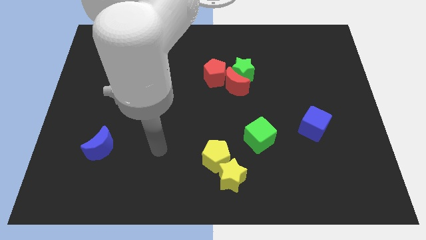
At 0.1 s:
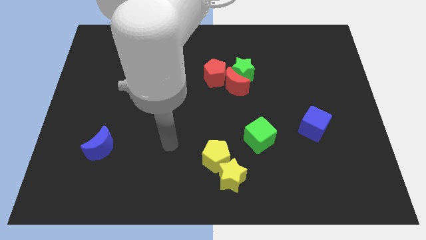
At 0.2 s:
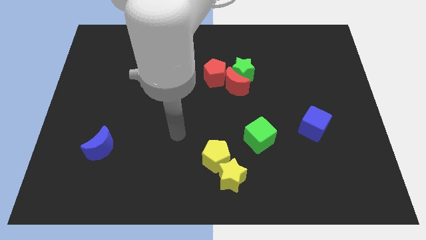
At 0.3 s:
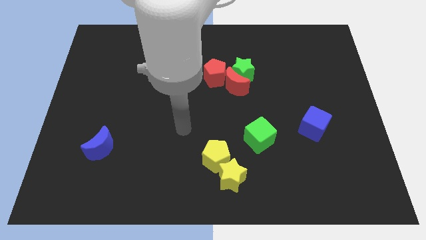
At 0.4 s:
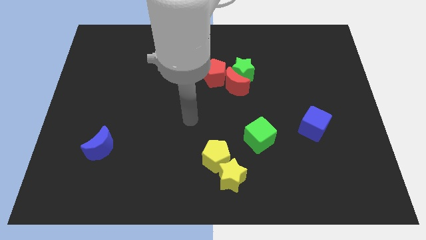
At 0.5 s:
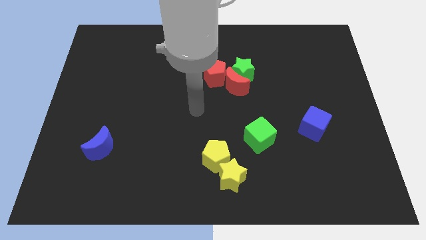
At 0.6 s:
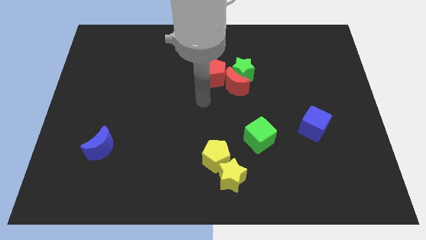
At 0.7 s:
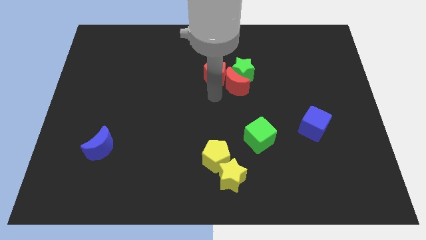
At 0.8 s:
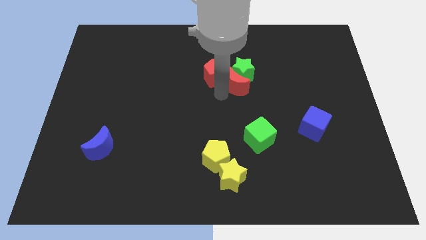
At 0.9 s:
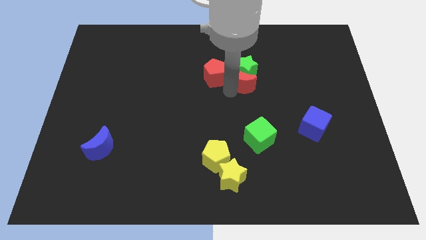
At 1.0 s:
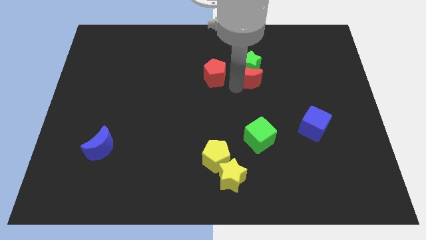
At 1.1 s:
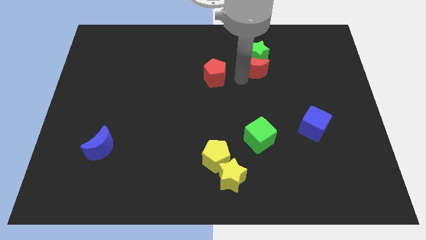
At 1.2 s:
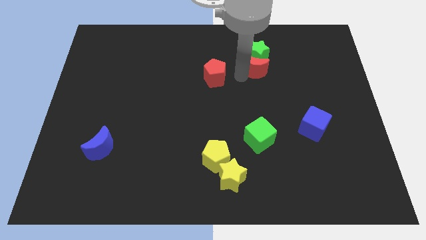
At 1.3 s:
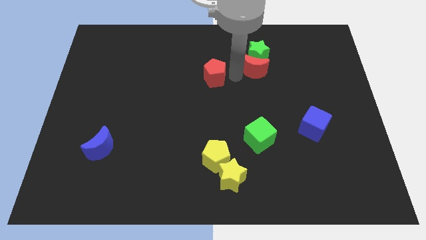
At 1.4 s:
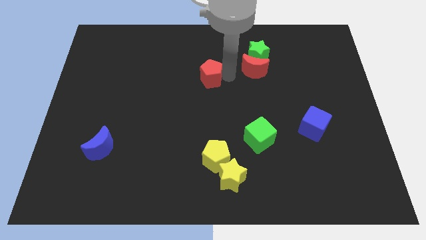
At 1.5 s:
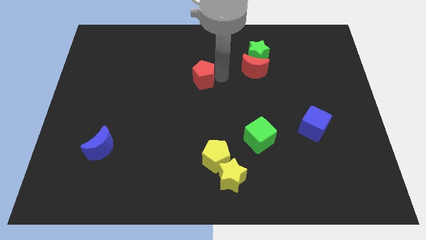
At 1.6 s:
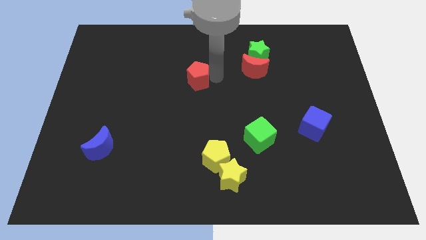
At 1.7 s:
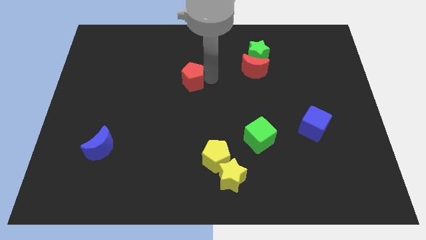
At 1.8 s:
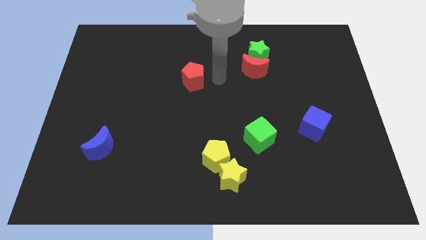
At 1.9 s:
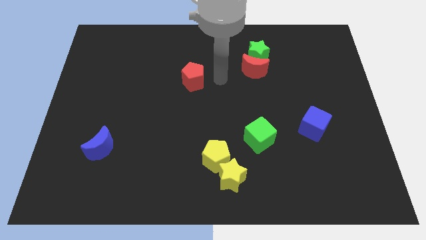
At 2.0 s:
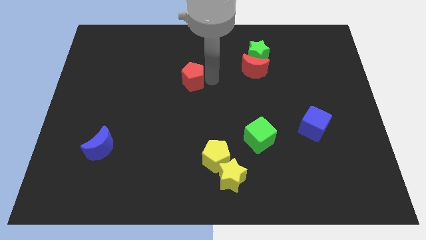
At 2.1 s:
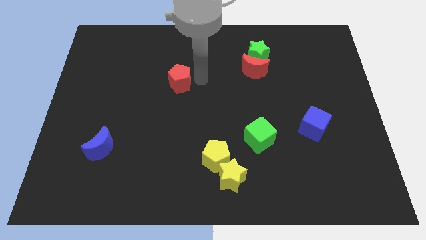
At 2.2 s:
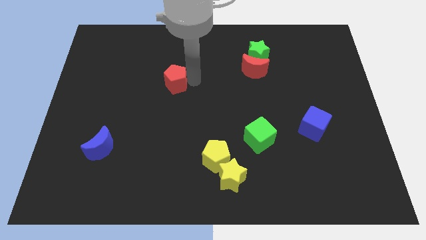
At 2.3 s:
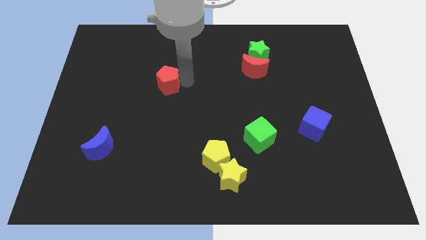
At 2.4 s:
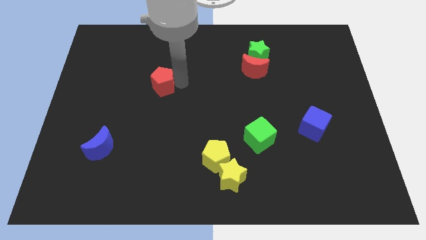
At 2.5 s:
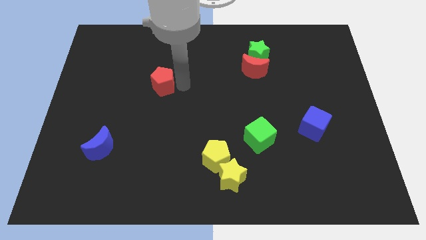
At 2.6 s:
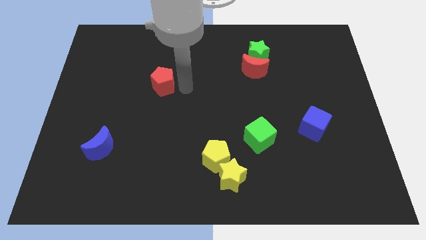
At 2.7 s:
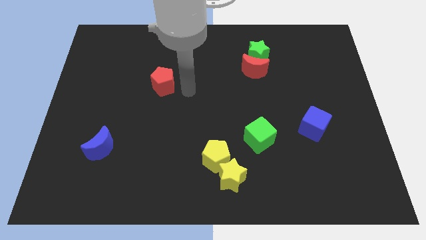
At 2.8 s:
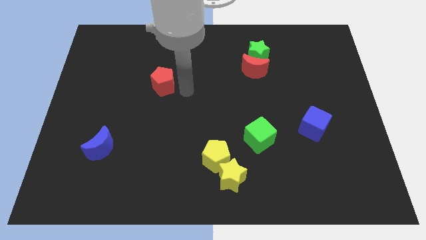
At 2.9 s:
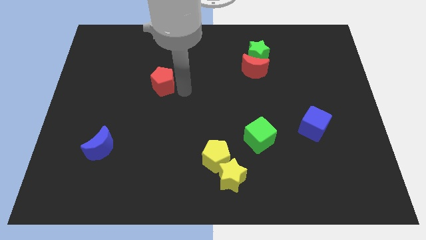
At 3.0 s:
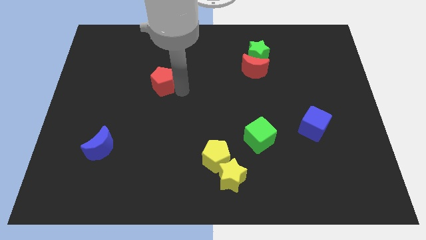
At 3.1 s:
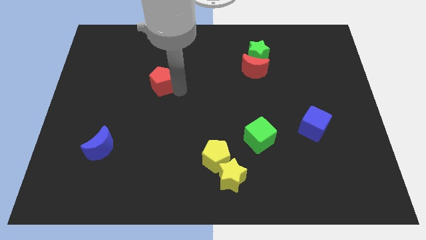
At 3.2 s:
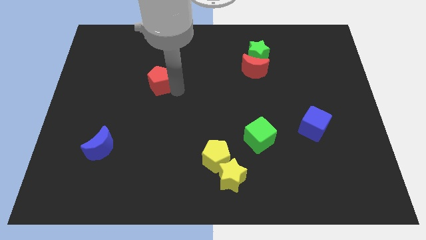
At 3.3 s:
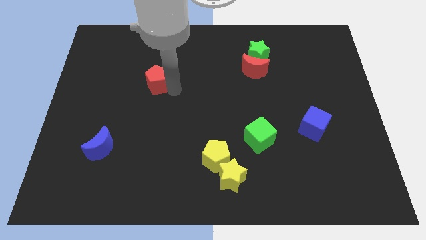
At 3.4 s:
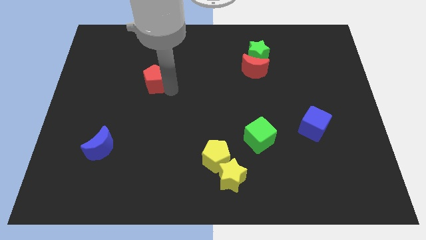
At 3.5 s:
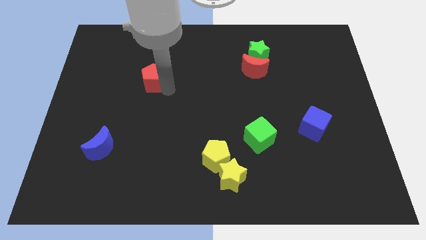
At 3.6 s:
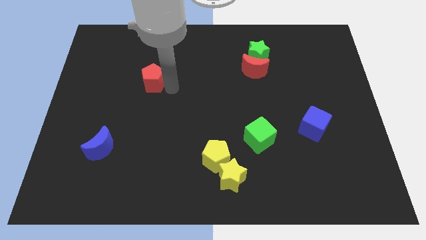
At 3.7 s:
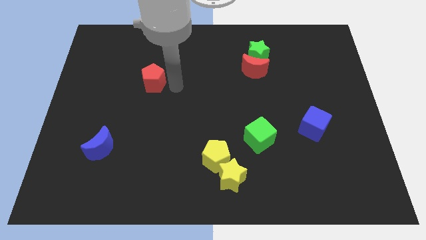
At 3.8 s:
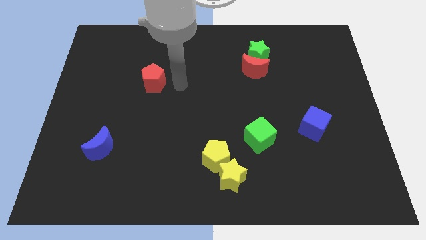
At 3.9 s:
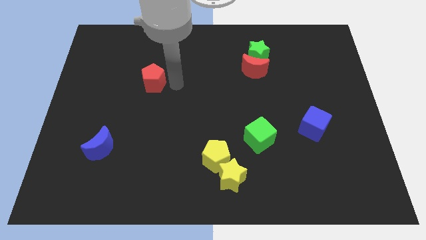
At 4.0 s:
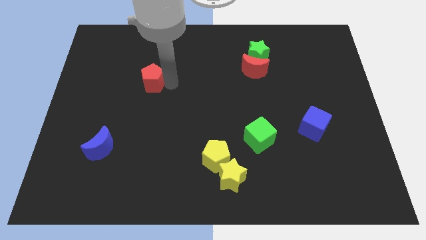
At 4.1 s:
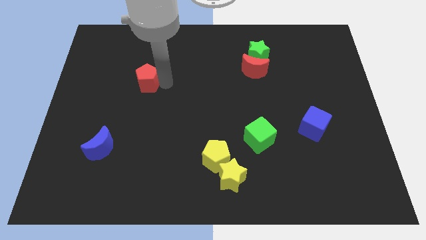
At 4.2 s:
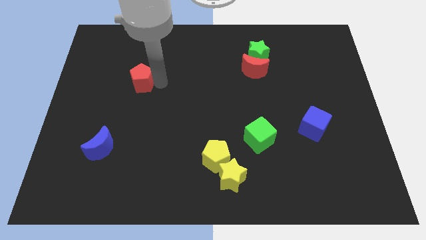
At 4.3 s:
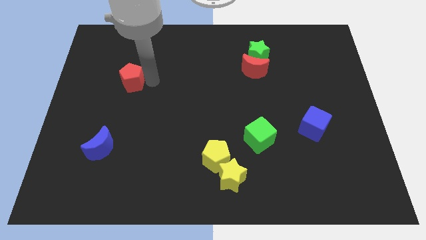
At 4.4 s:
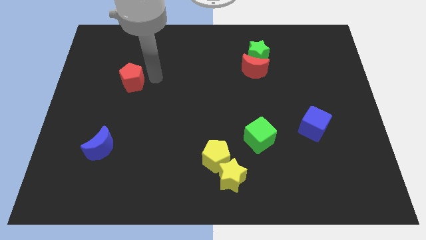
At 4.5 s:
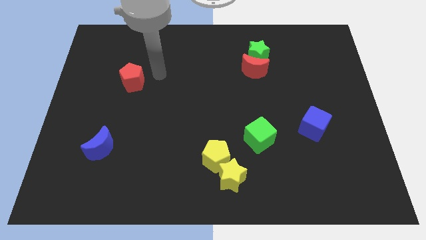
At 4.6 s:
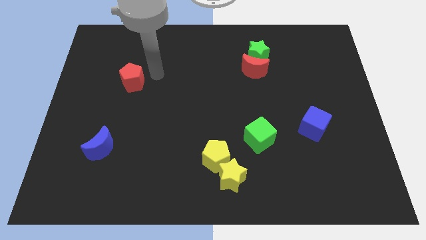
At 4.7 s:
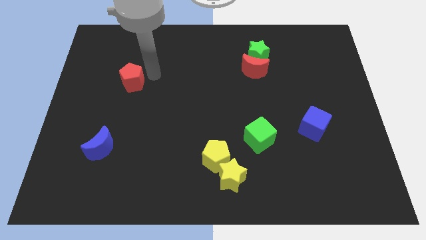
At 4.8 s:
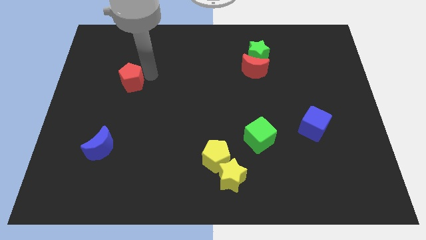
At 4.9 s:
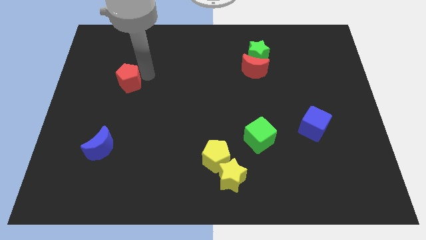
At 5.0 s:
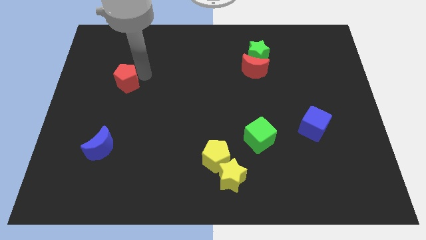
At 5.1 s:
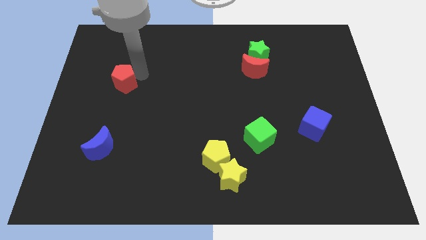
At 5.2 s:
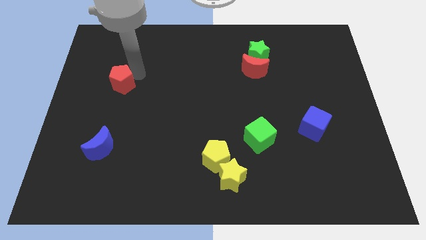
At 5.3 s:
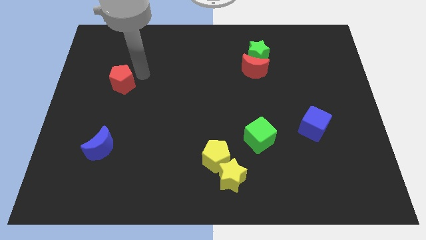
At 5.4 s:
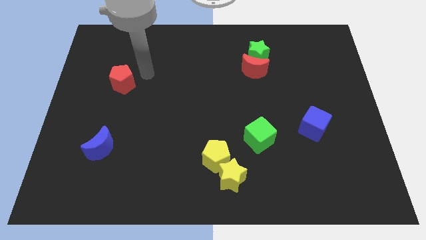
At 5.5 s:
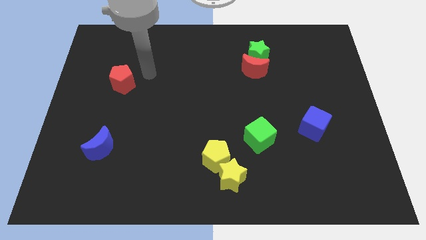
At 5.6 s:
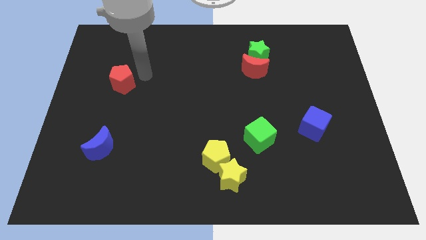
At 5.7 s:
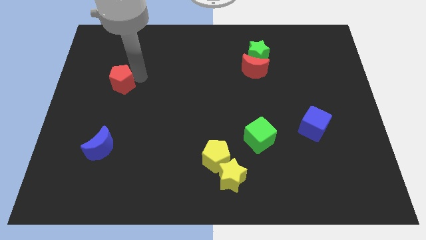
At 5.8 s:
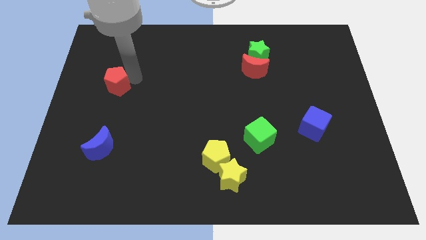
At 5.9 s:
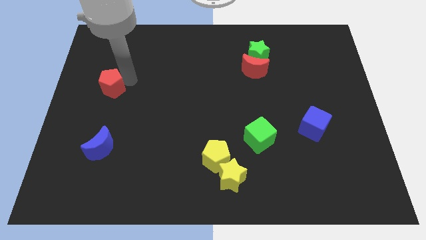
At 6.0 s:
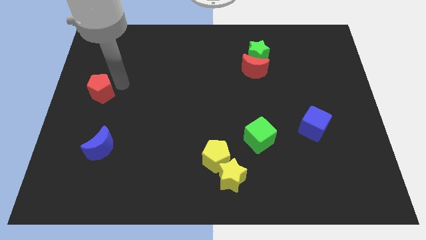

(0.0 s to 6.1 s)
put the red pentagon to the center left

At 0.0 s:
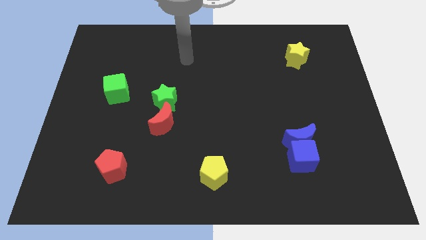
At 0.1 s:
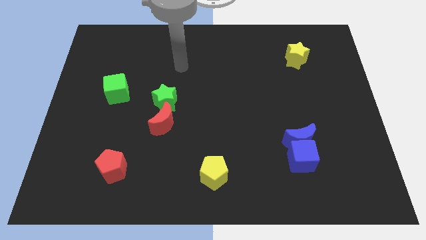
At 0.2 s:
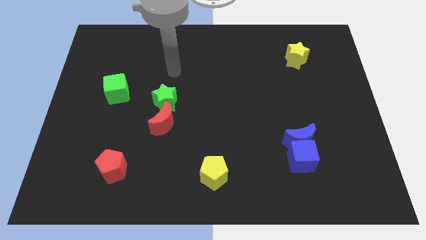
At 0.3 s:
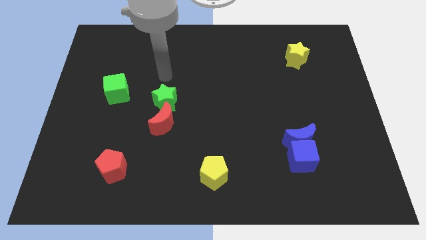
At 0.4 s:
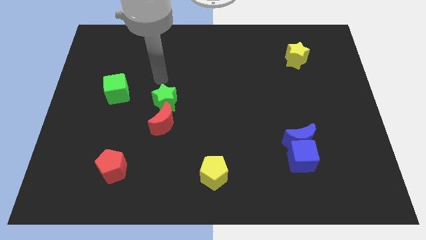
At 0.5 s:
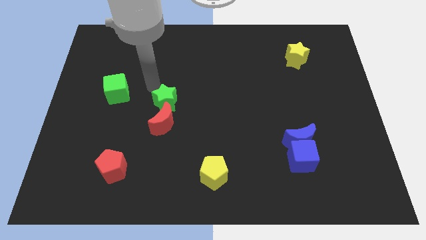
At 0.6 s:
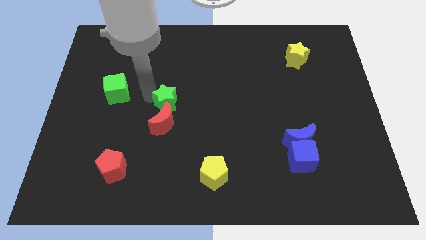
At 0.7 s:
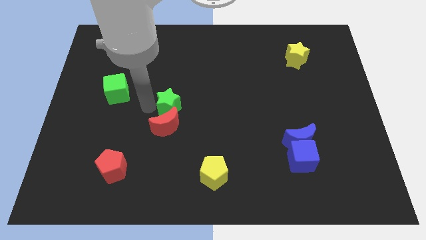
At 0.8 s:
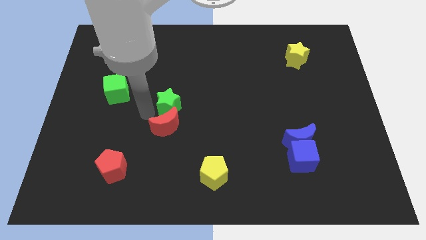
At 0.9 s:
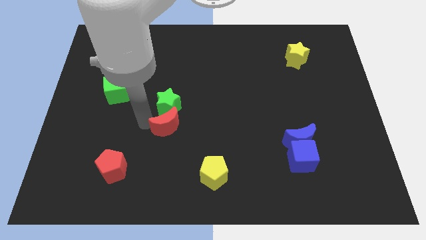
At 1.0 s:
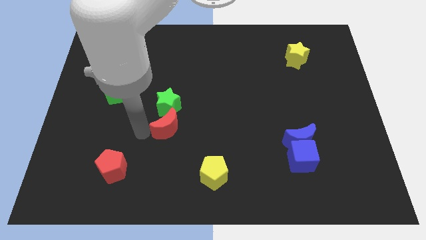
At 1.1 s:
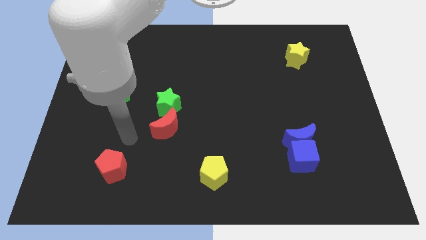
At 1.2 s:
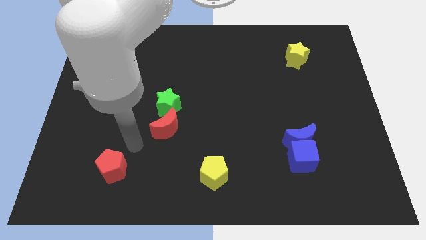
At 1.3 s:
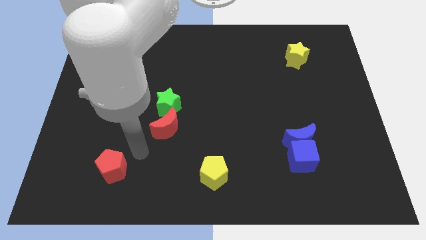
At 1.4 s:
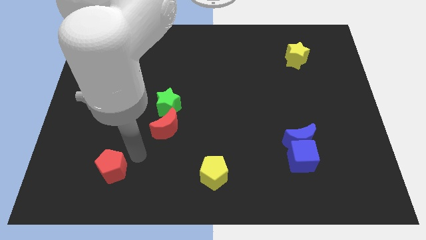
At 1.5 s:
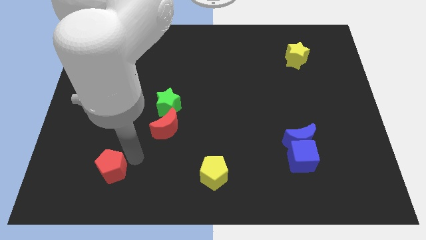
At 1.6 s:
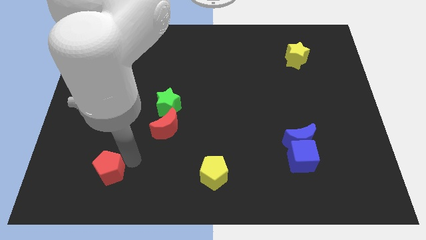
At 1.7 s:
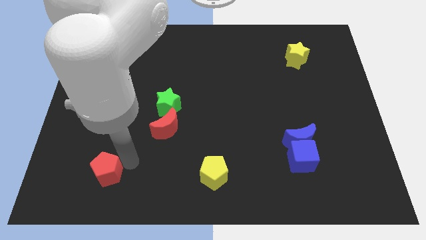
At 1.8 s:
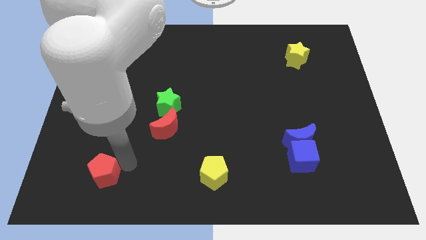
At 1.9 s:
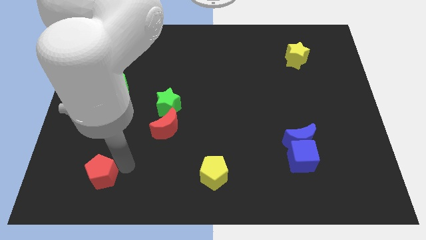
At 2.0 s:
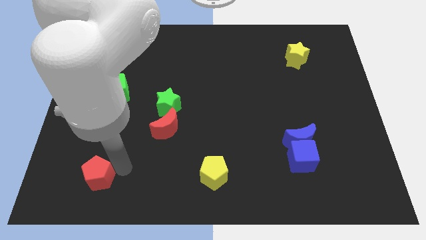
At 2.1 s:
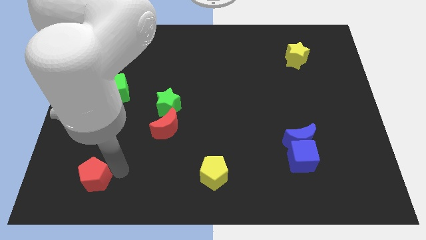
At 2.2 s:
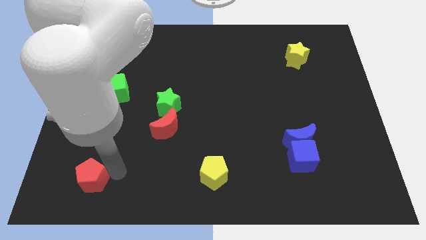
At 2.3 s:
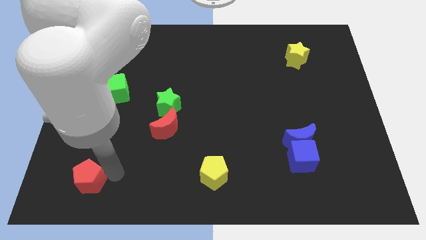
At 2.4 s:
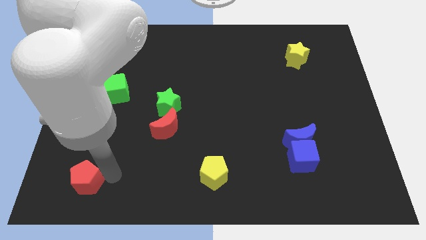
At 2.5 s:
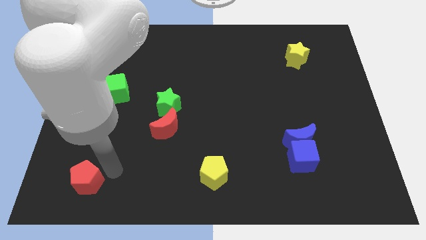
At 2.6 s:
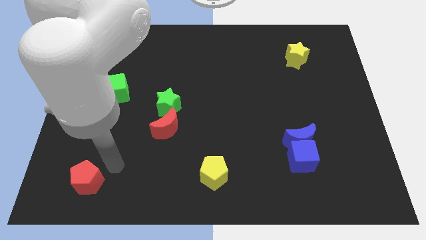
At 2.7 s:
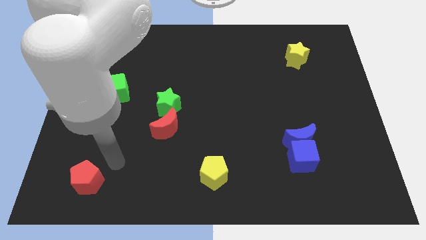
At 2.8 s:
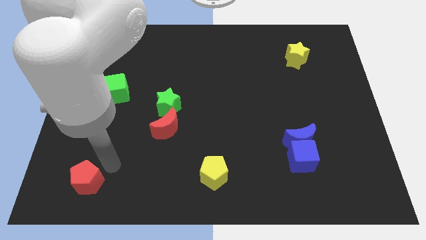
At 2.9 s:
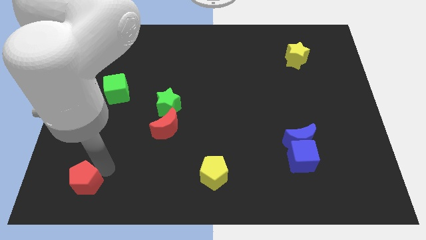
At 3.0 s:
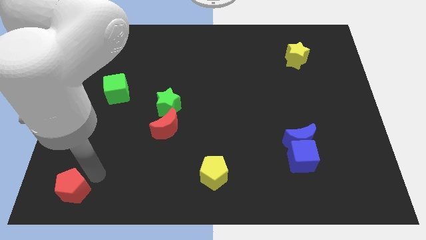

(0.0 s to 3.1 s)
push the red pentagon to the bottom left of the board
